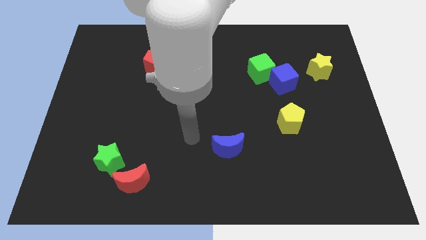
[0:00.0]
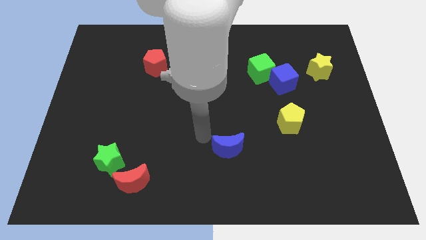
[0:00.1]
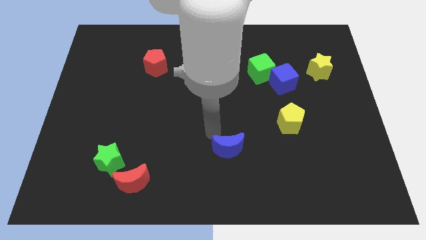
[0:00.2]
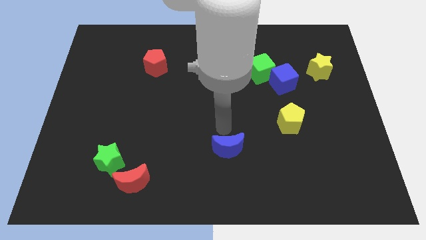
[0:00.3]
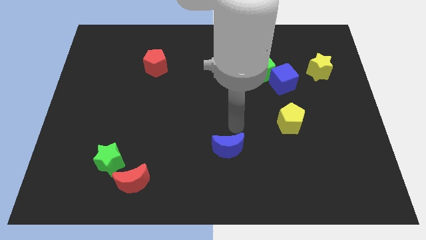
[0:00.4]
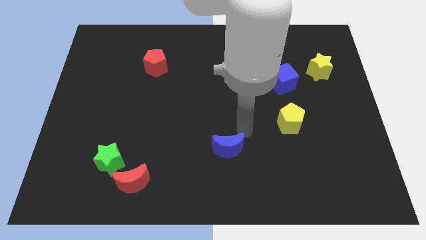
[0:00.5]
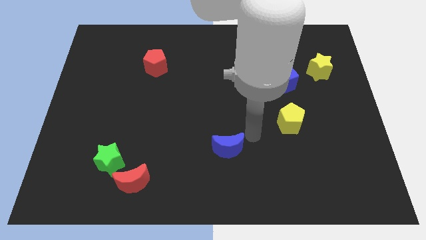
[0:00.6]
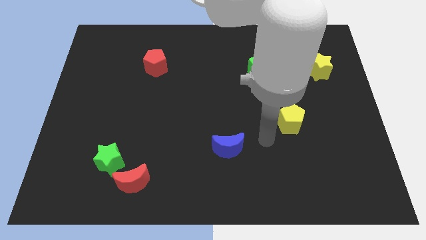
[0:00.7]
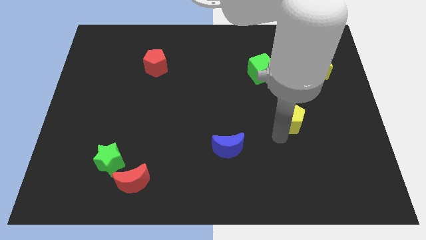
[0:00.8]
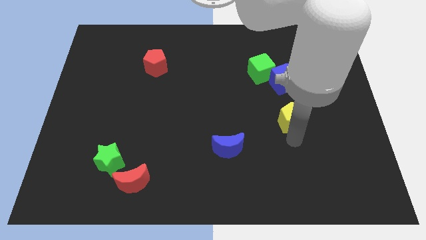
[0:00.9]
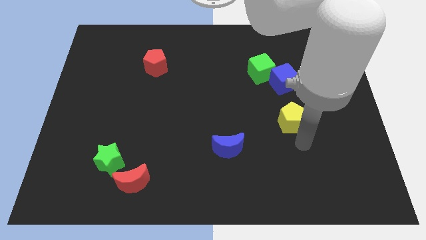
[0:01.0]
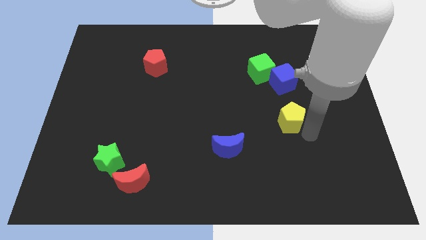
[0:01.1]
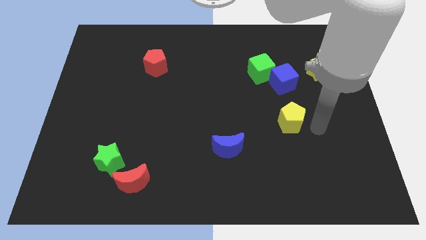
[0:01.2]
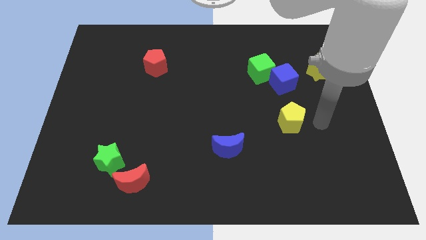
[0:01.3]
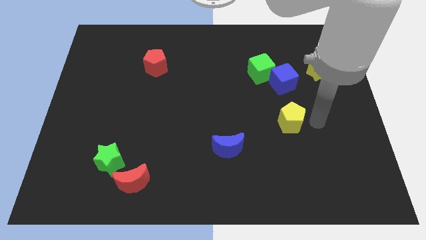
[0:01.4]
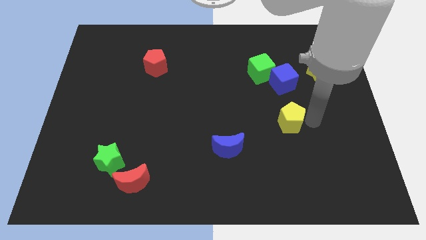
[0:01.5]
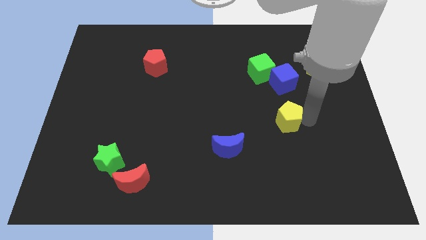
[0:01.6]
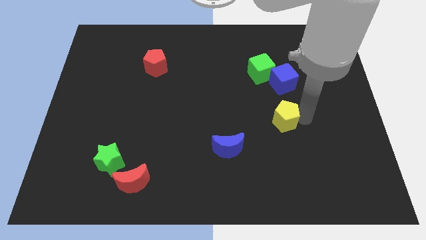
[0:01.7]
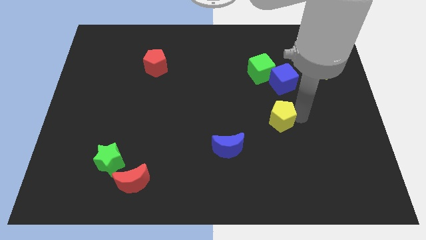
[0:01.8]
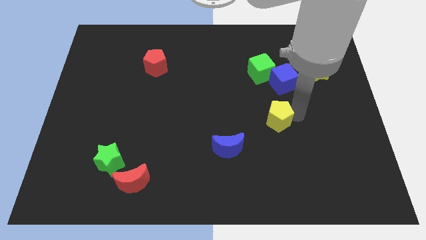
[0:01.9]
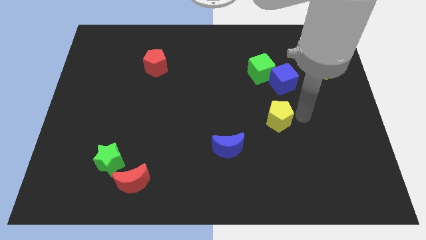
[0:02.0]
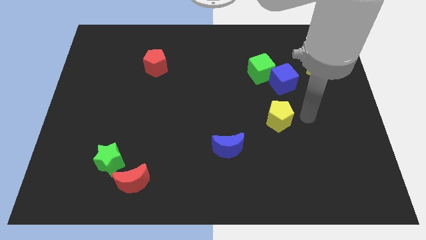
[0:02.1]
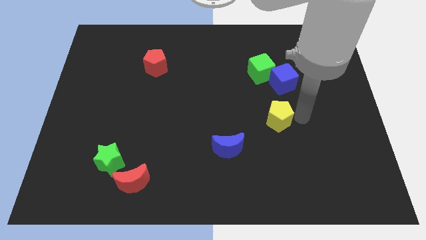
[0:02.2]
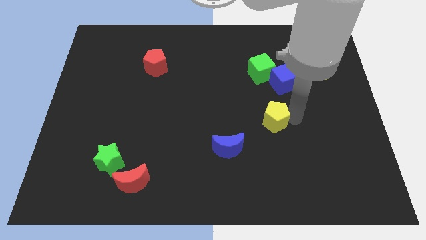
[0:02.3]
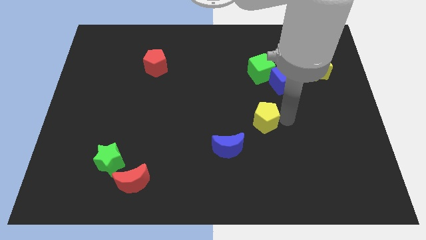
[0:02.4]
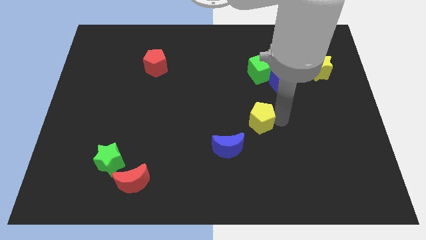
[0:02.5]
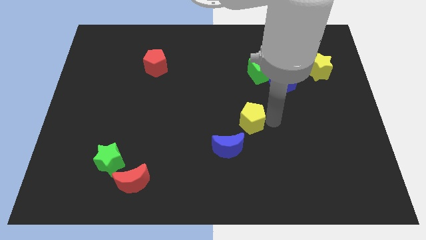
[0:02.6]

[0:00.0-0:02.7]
slightly move the yellow pentagon left

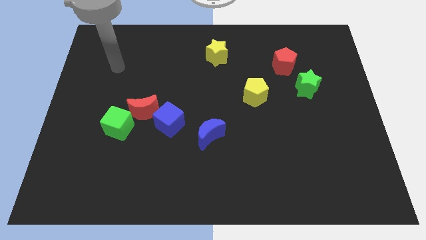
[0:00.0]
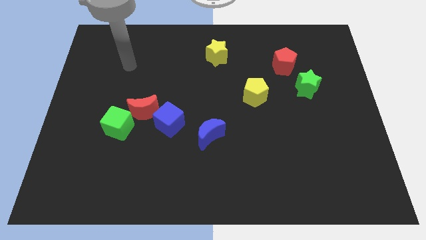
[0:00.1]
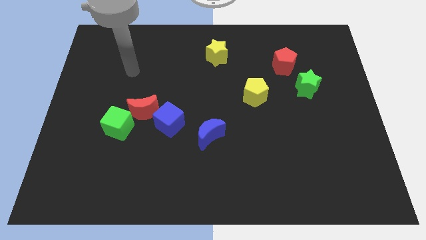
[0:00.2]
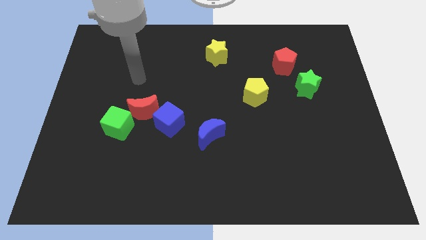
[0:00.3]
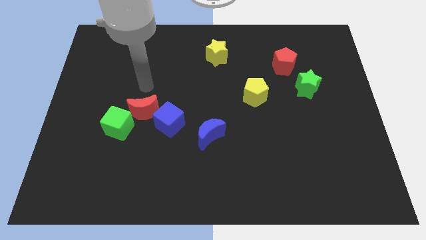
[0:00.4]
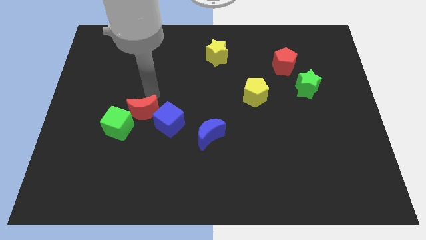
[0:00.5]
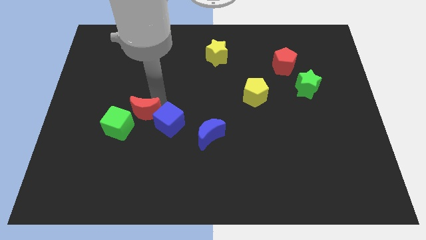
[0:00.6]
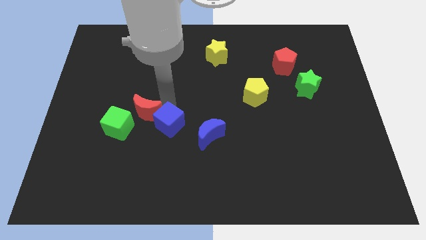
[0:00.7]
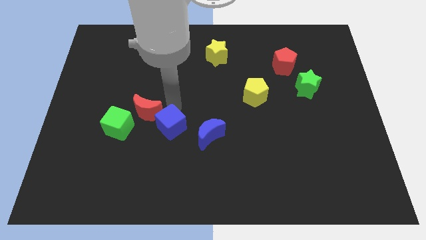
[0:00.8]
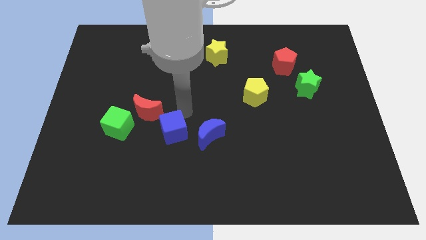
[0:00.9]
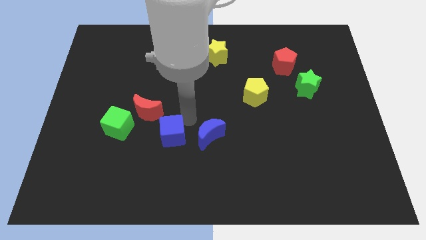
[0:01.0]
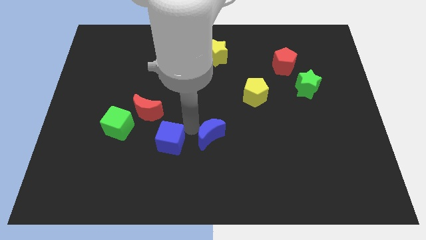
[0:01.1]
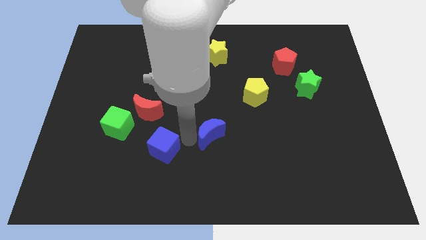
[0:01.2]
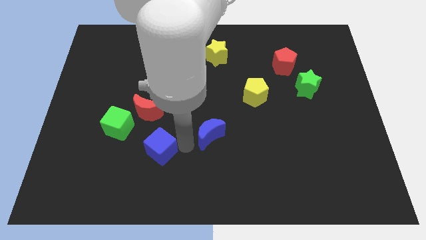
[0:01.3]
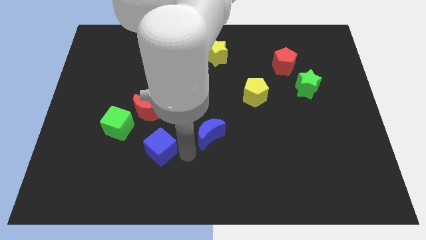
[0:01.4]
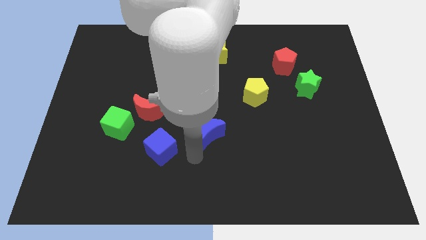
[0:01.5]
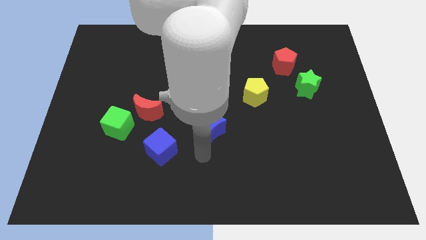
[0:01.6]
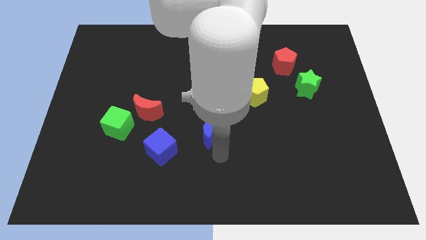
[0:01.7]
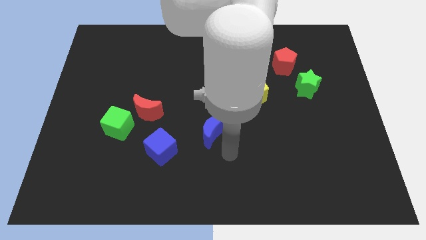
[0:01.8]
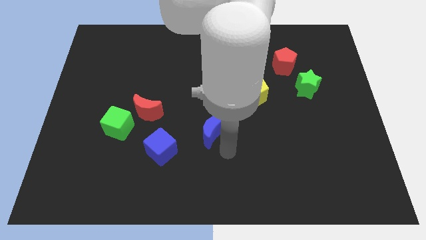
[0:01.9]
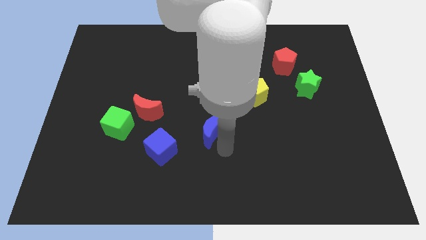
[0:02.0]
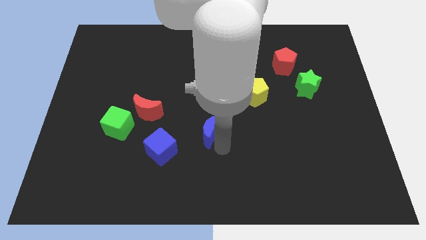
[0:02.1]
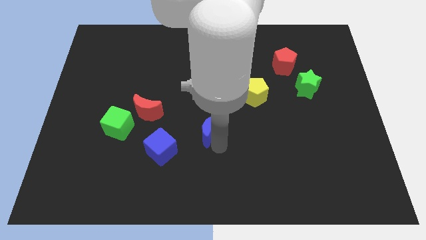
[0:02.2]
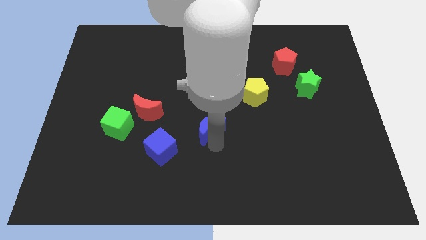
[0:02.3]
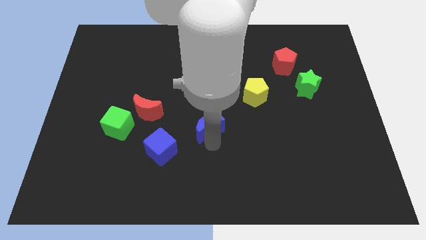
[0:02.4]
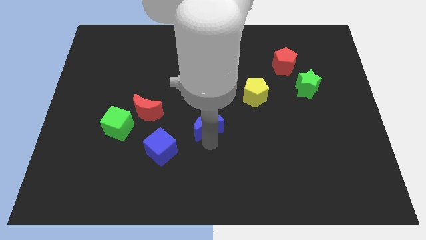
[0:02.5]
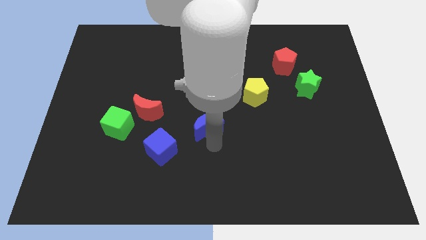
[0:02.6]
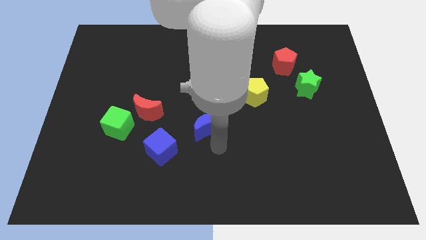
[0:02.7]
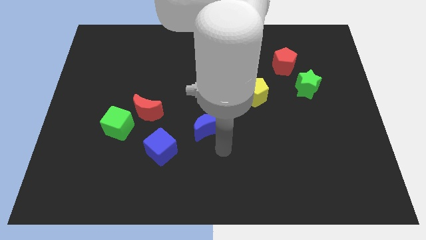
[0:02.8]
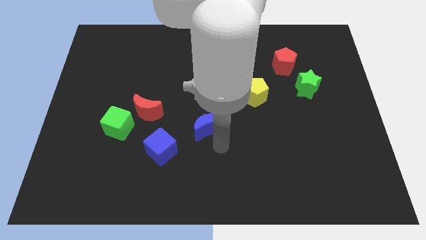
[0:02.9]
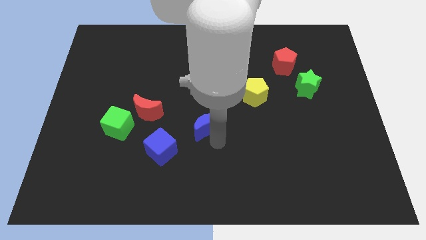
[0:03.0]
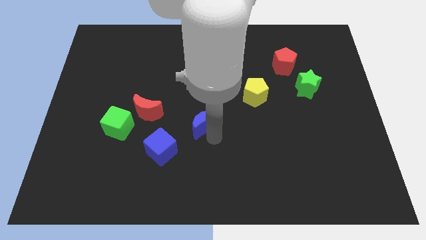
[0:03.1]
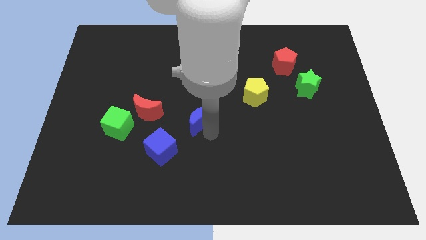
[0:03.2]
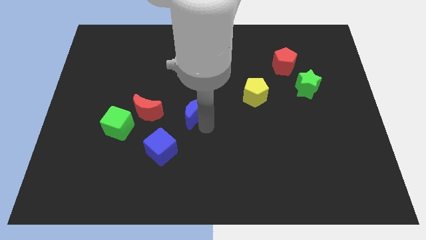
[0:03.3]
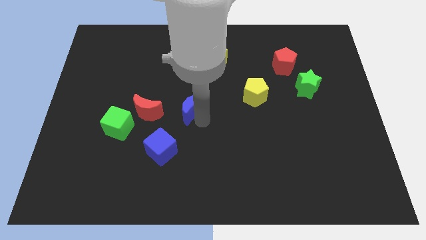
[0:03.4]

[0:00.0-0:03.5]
slide the blue moon up and then to the left a bit

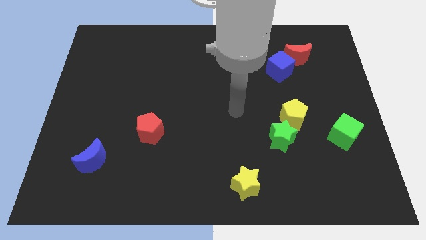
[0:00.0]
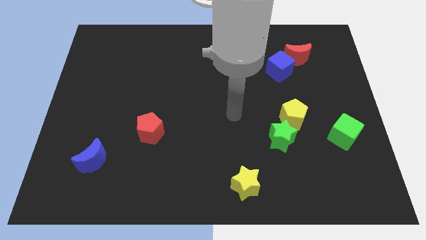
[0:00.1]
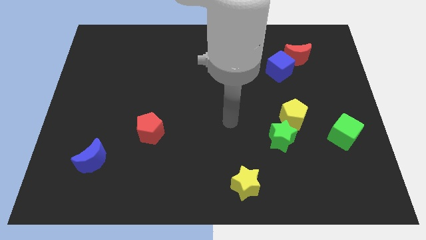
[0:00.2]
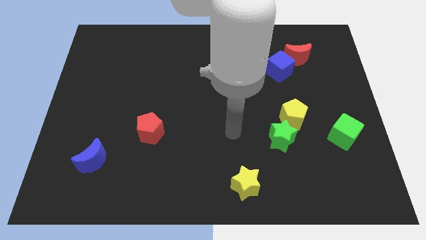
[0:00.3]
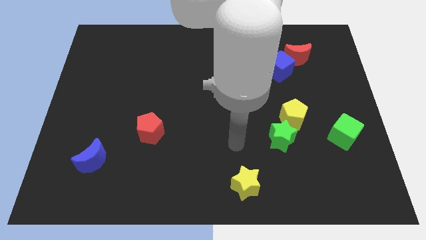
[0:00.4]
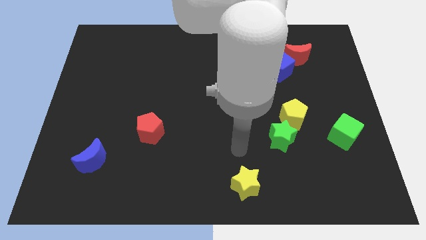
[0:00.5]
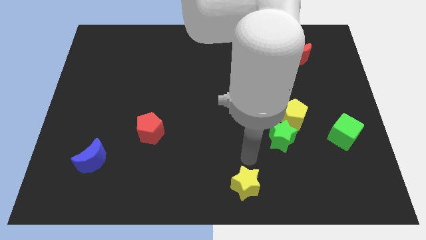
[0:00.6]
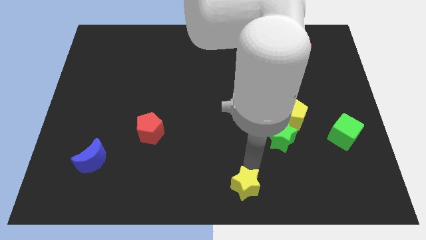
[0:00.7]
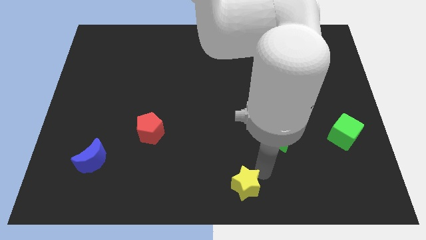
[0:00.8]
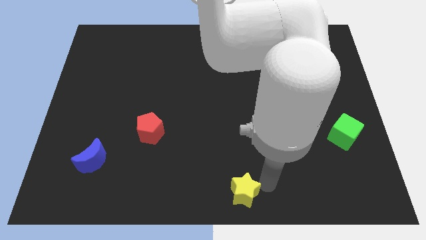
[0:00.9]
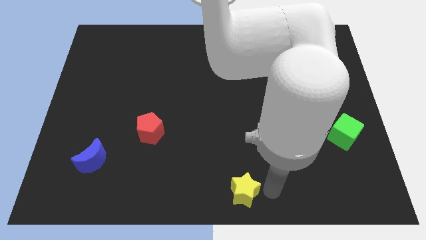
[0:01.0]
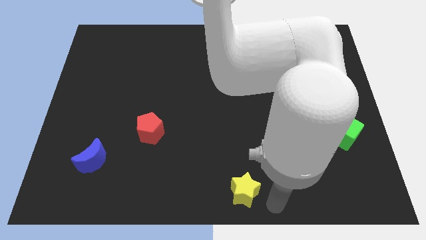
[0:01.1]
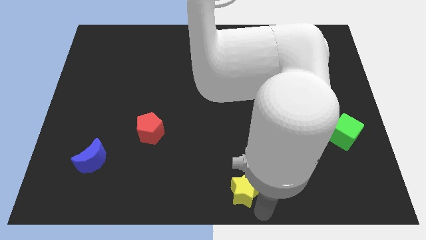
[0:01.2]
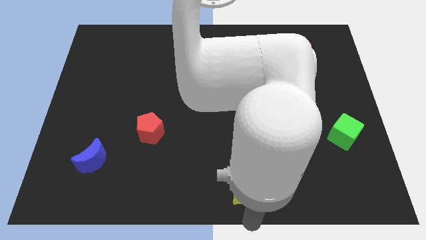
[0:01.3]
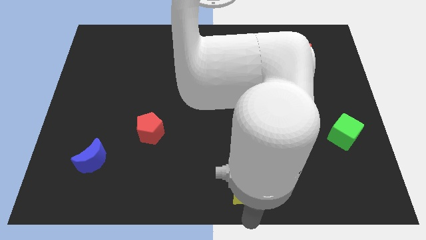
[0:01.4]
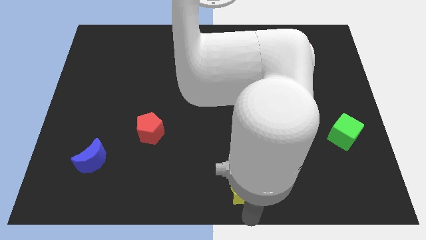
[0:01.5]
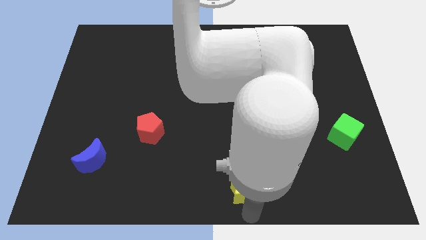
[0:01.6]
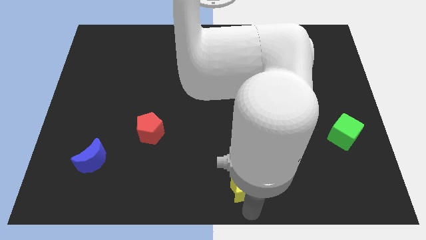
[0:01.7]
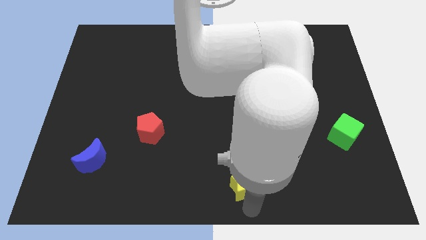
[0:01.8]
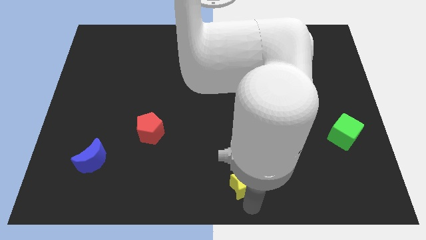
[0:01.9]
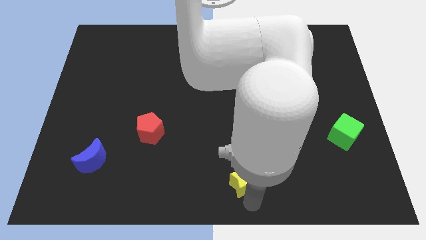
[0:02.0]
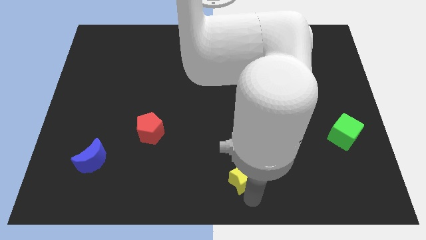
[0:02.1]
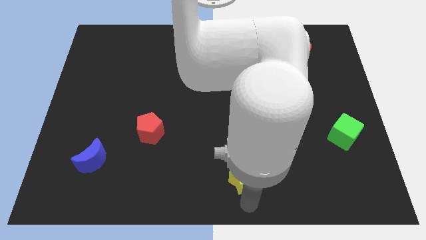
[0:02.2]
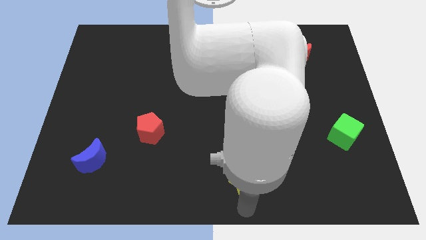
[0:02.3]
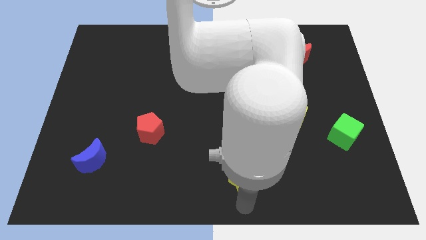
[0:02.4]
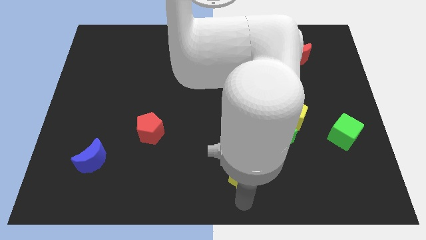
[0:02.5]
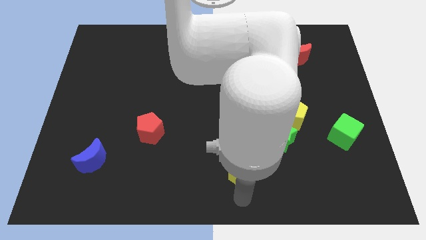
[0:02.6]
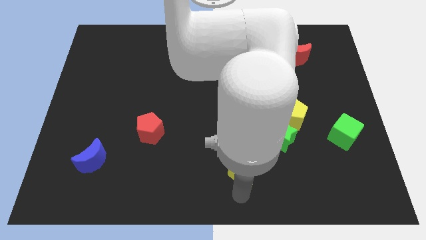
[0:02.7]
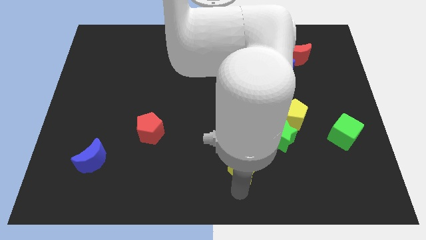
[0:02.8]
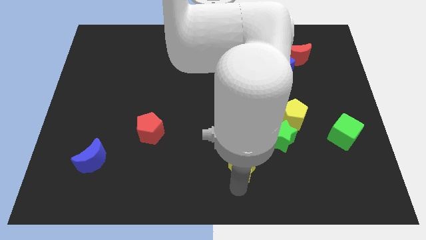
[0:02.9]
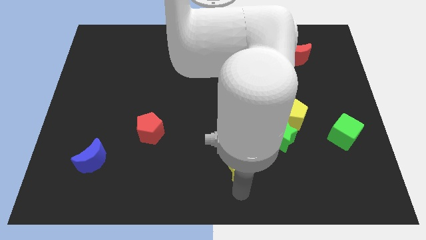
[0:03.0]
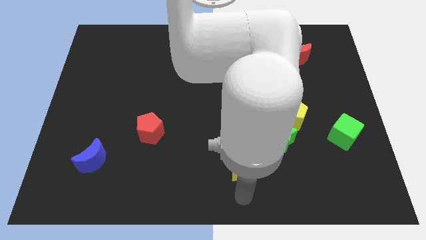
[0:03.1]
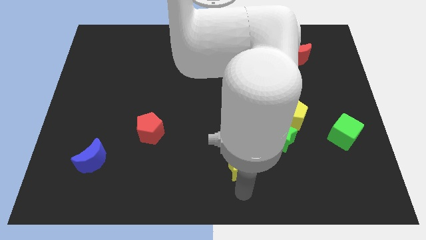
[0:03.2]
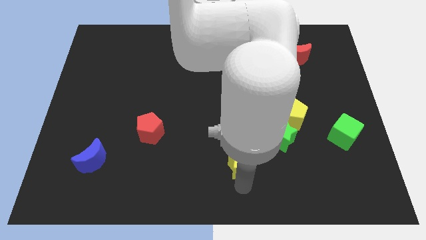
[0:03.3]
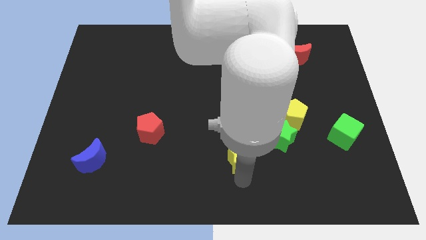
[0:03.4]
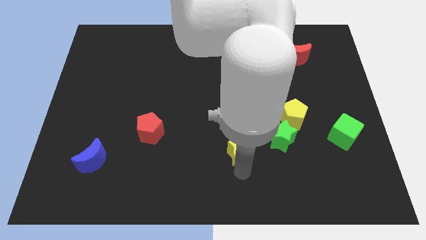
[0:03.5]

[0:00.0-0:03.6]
push the yellow star a bit up
